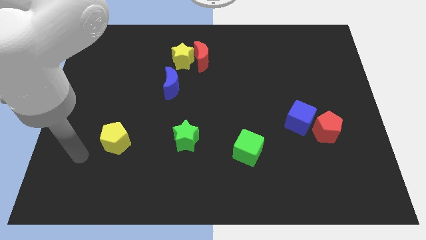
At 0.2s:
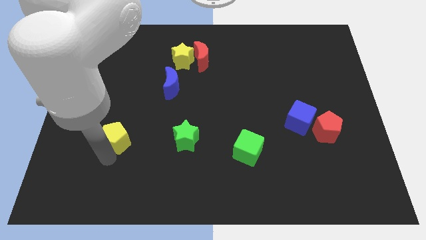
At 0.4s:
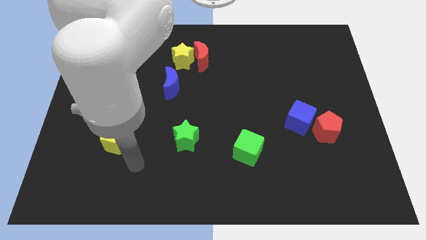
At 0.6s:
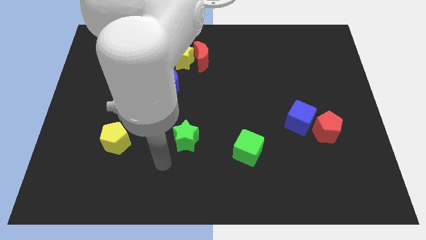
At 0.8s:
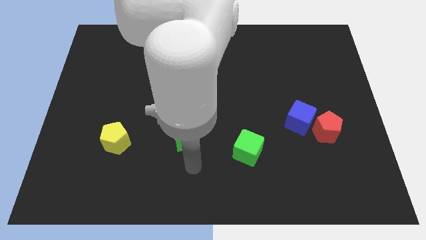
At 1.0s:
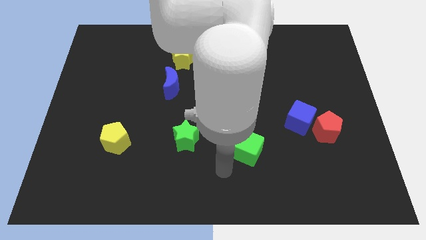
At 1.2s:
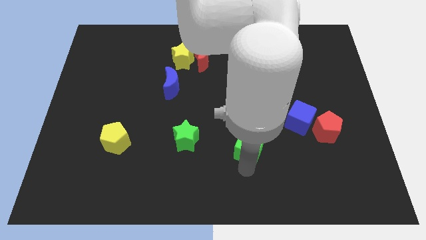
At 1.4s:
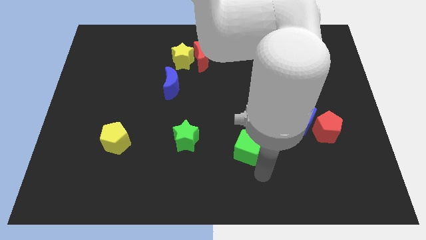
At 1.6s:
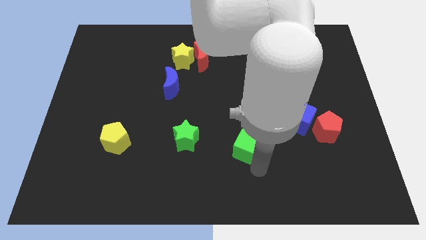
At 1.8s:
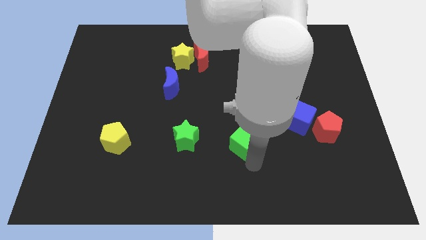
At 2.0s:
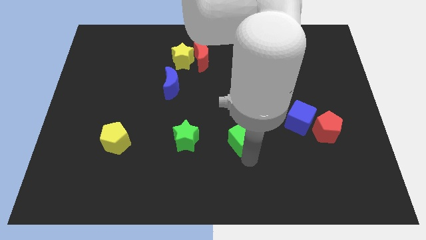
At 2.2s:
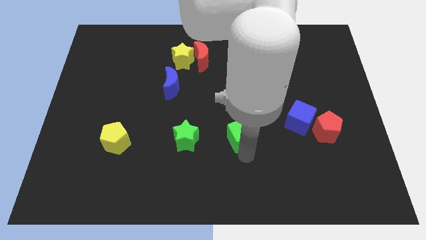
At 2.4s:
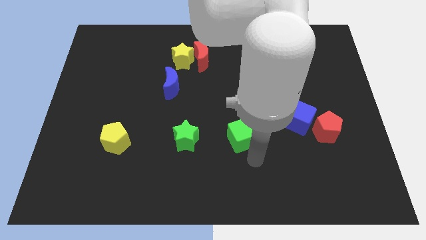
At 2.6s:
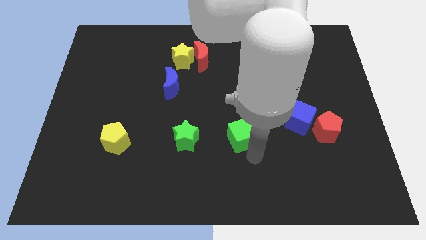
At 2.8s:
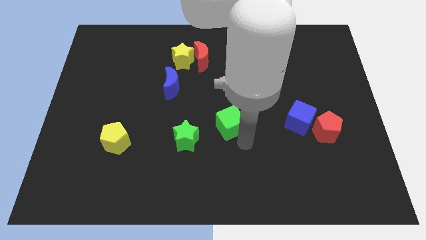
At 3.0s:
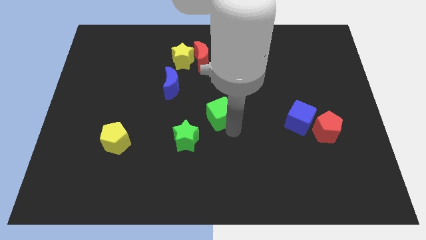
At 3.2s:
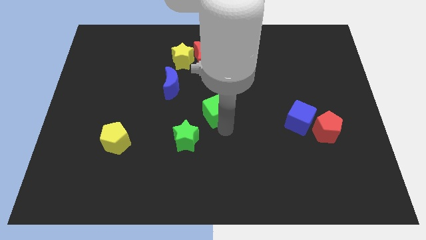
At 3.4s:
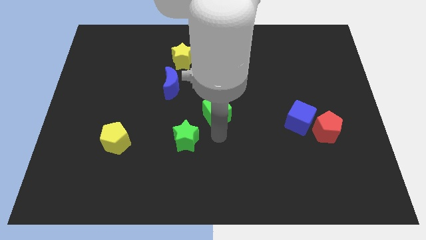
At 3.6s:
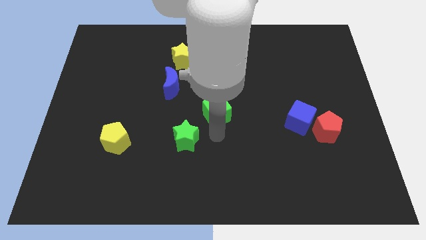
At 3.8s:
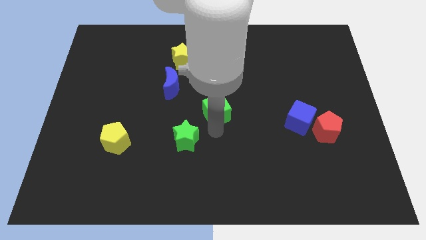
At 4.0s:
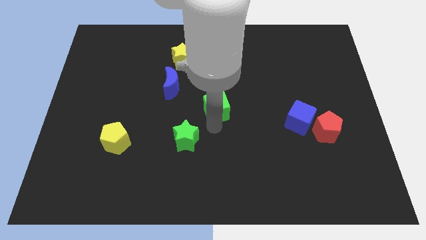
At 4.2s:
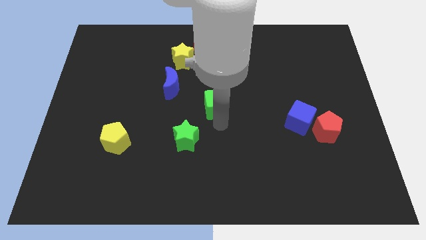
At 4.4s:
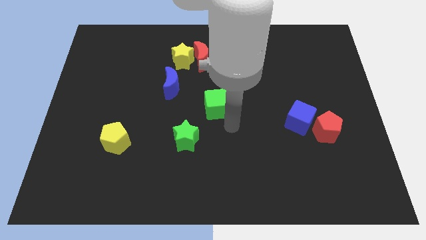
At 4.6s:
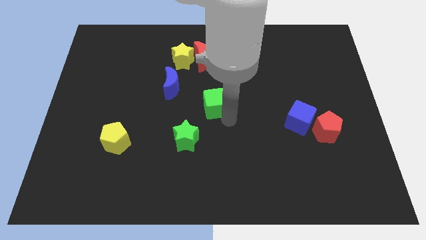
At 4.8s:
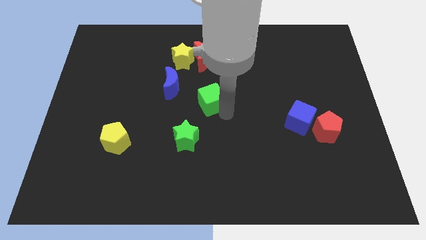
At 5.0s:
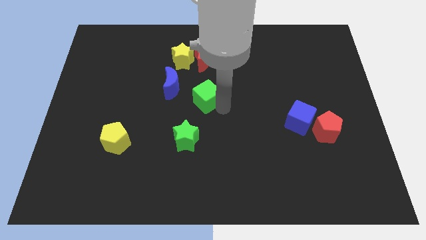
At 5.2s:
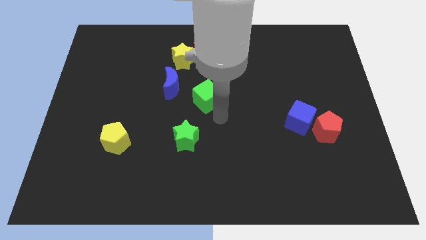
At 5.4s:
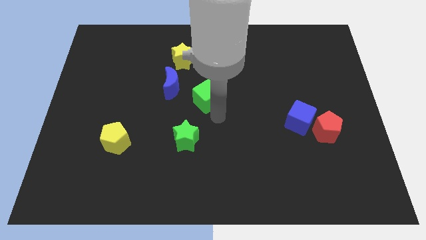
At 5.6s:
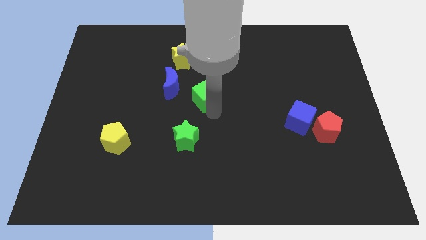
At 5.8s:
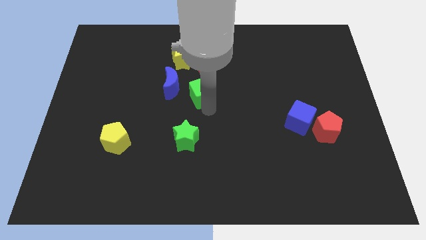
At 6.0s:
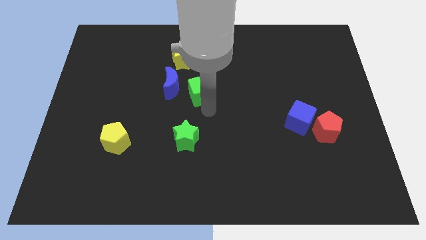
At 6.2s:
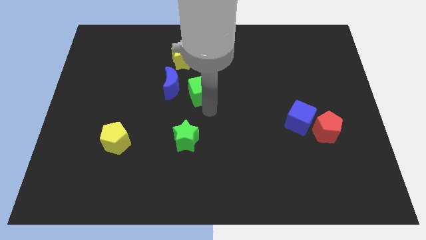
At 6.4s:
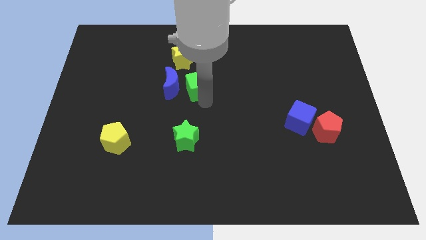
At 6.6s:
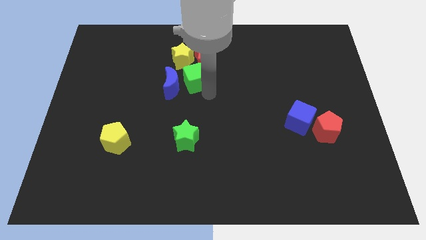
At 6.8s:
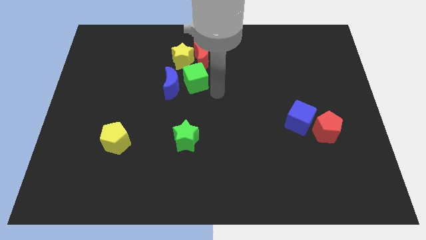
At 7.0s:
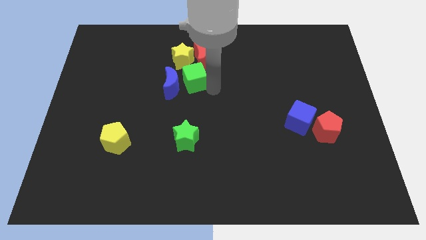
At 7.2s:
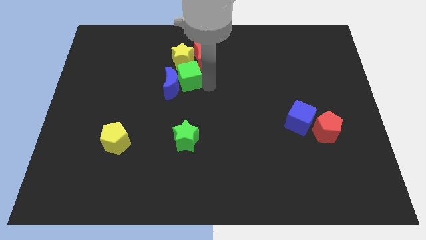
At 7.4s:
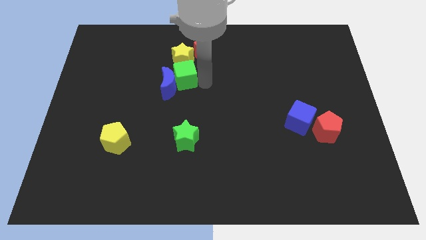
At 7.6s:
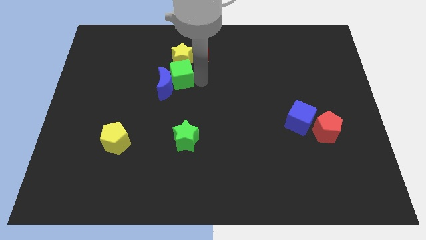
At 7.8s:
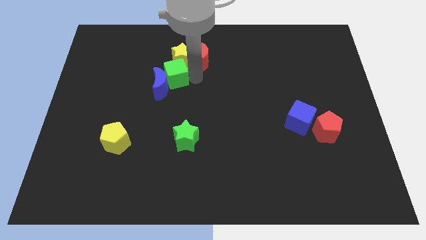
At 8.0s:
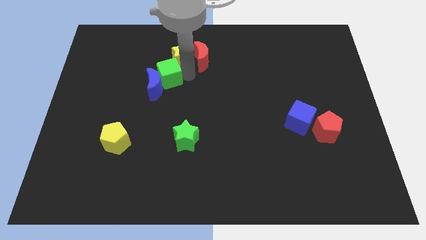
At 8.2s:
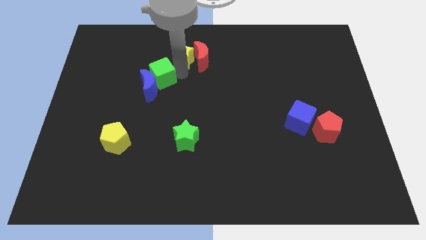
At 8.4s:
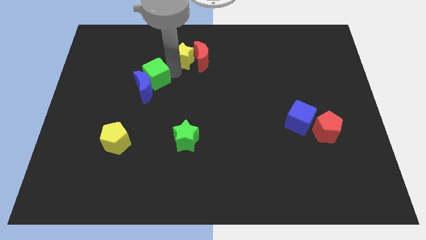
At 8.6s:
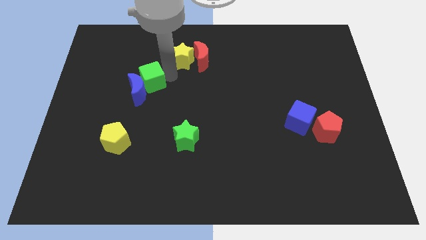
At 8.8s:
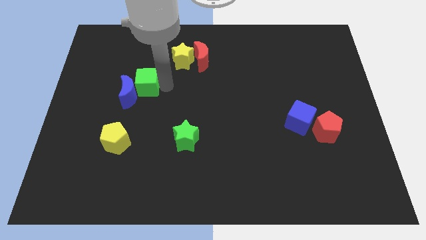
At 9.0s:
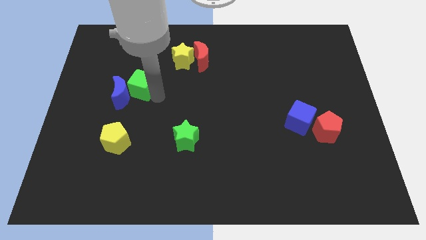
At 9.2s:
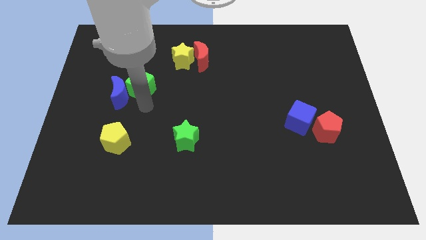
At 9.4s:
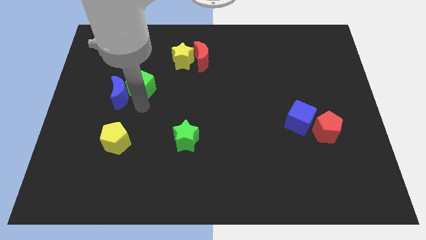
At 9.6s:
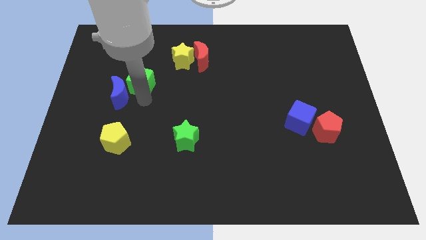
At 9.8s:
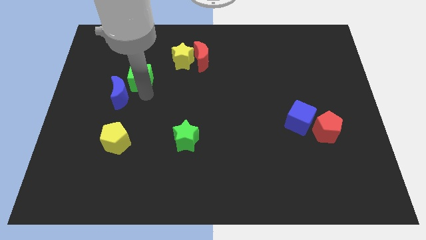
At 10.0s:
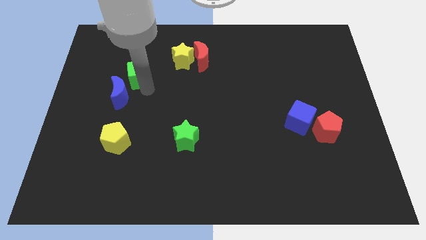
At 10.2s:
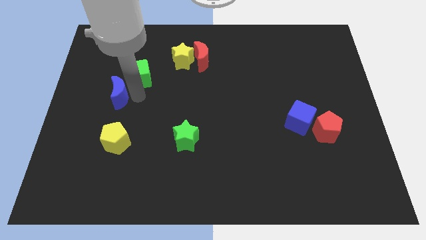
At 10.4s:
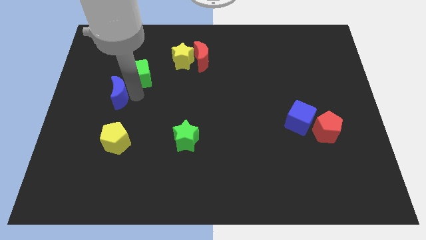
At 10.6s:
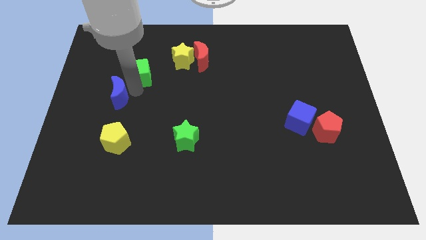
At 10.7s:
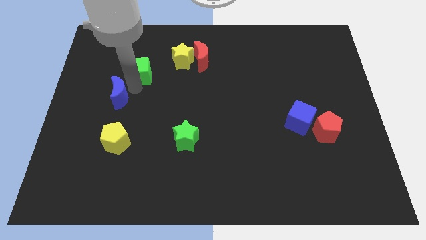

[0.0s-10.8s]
move the green cube to the left side of the yellow star

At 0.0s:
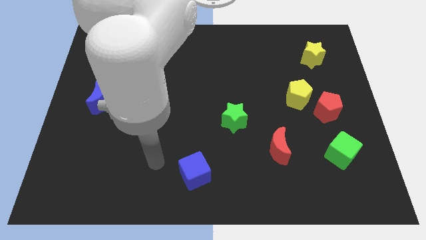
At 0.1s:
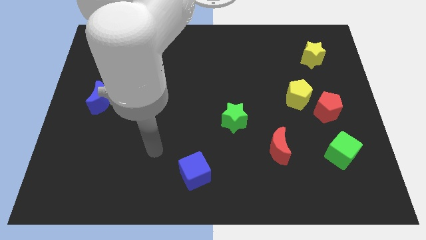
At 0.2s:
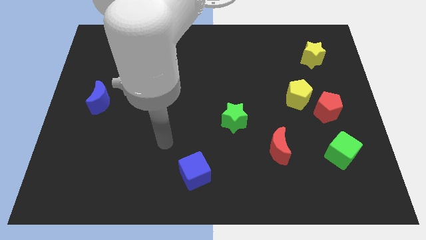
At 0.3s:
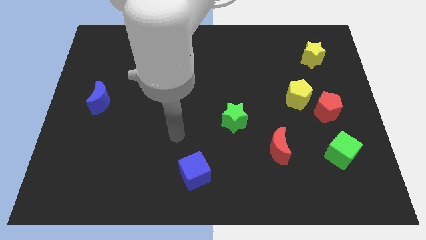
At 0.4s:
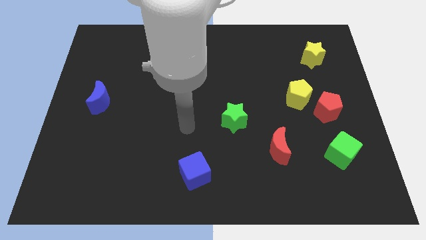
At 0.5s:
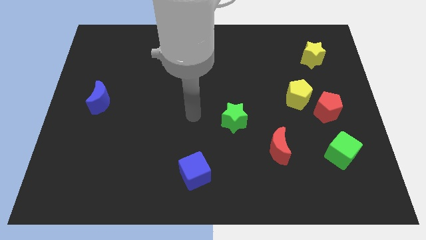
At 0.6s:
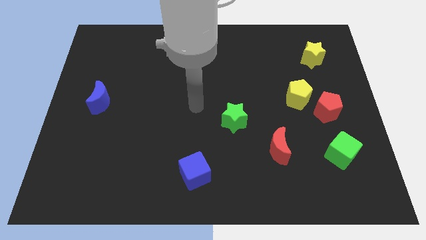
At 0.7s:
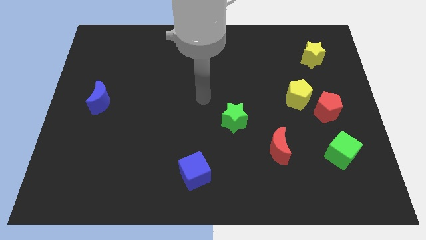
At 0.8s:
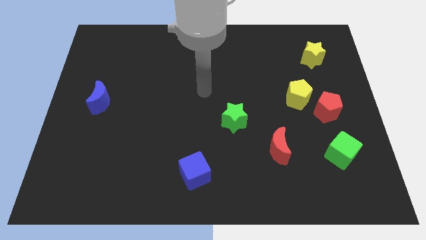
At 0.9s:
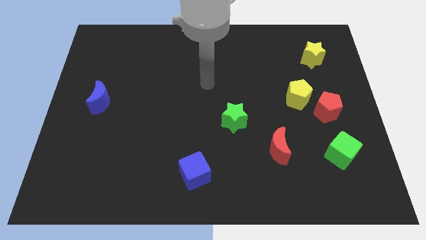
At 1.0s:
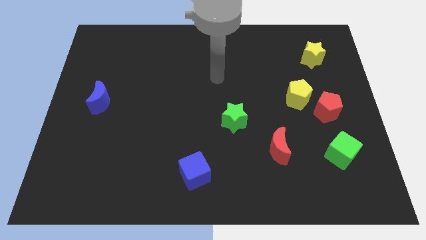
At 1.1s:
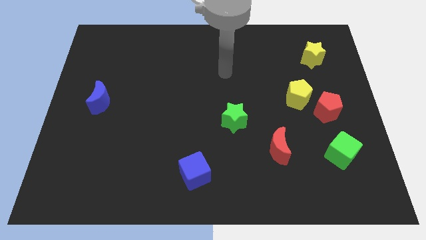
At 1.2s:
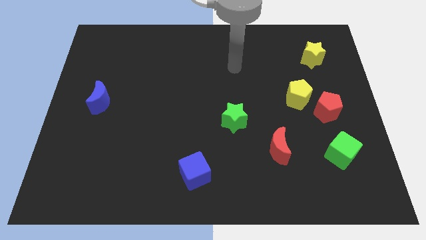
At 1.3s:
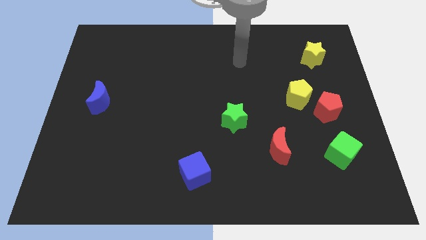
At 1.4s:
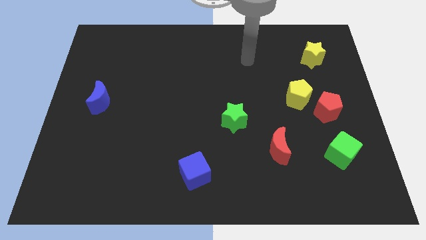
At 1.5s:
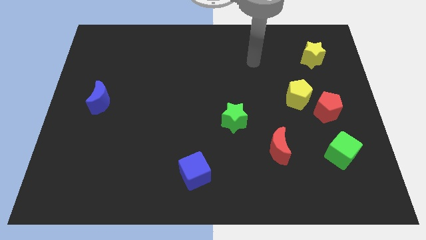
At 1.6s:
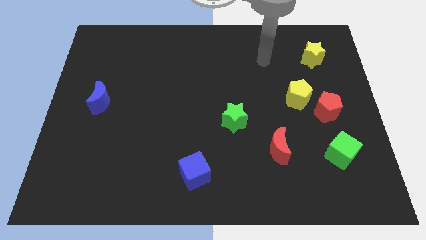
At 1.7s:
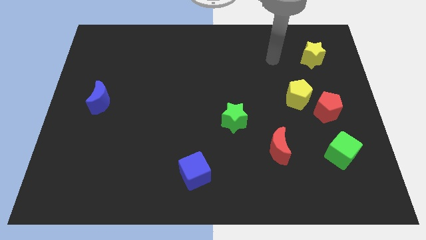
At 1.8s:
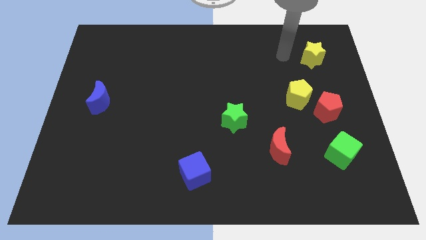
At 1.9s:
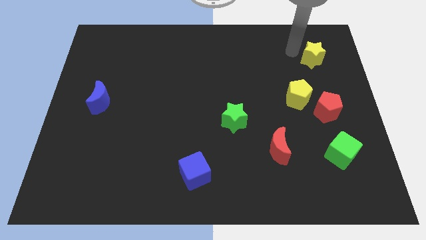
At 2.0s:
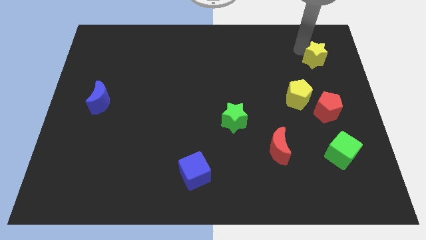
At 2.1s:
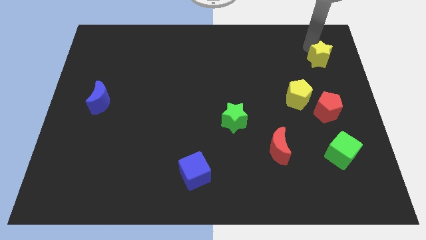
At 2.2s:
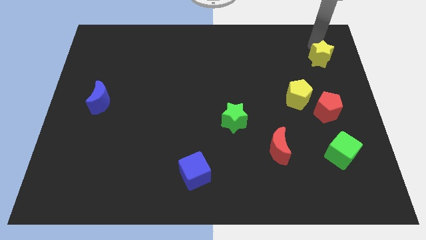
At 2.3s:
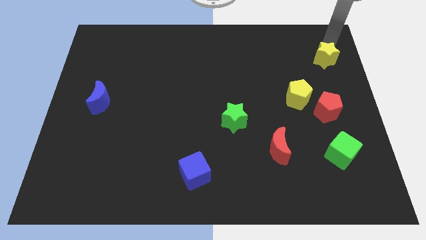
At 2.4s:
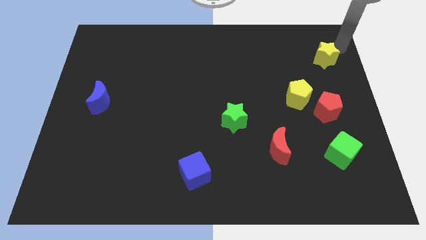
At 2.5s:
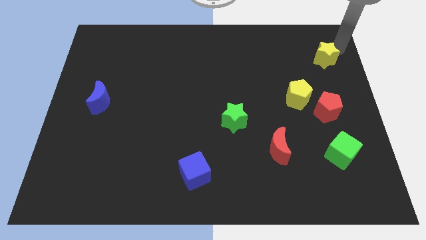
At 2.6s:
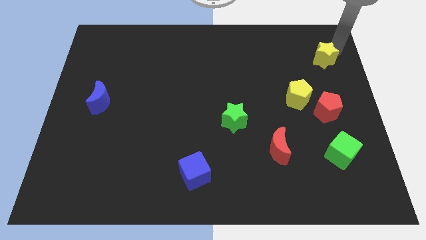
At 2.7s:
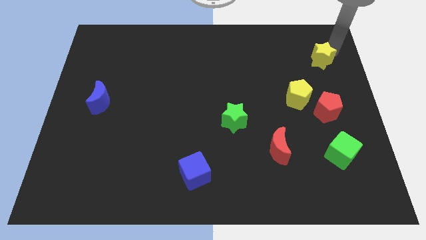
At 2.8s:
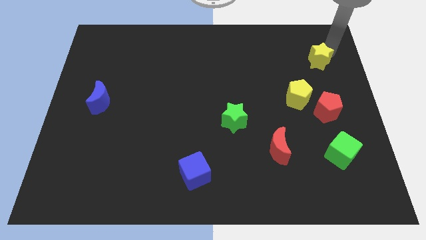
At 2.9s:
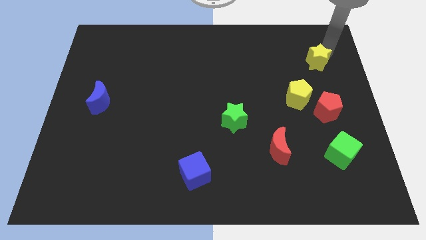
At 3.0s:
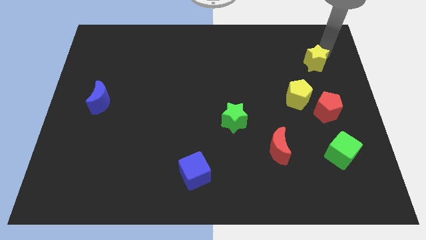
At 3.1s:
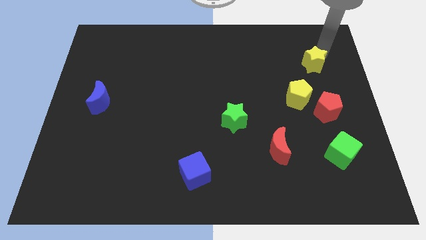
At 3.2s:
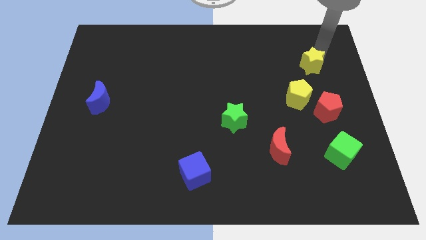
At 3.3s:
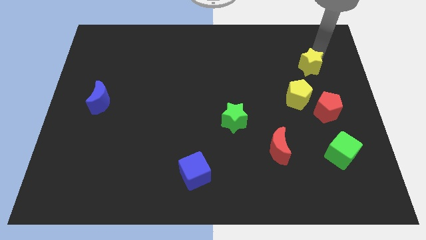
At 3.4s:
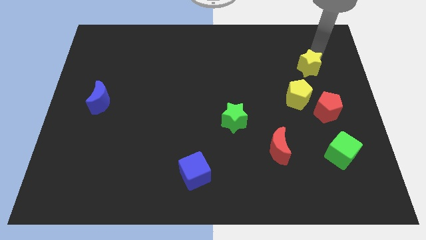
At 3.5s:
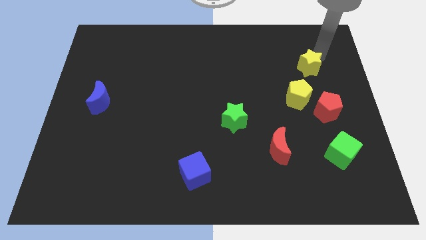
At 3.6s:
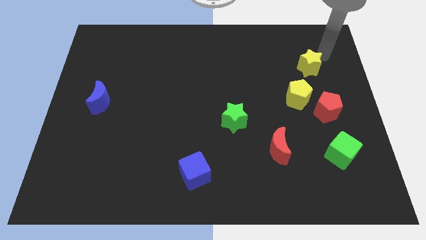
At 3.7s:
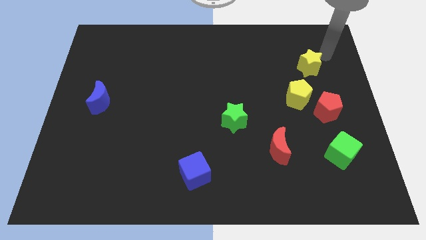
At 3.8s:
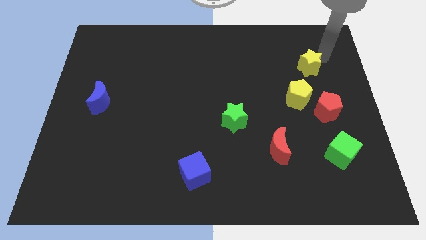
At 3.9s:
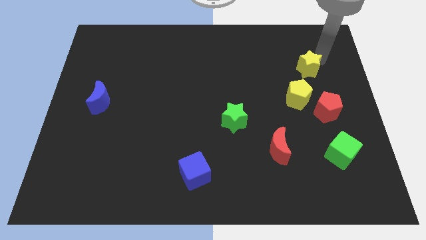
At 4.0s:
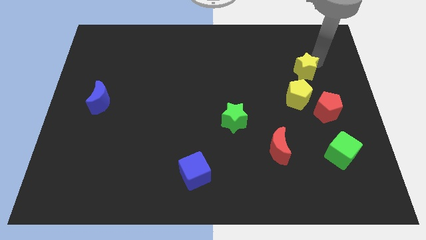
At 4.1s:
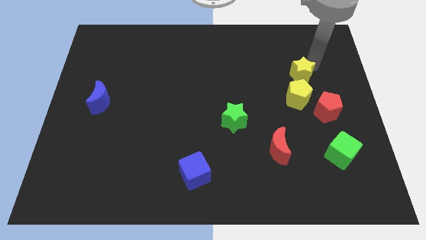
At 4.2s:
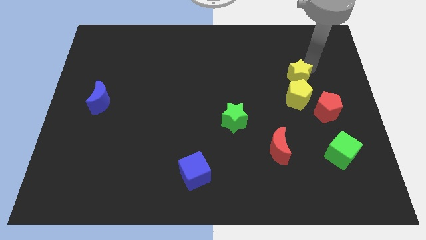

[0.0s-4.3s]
put the yellow star to the top left of the red pentagon
